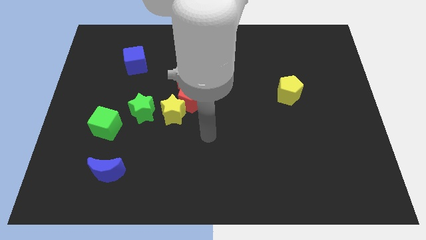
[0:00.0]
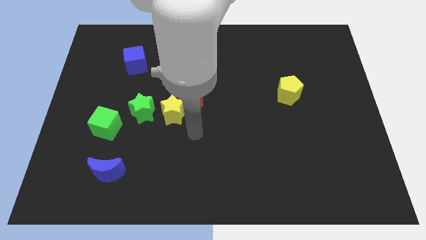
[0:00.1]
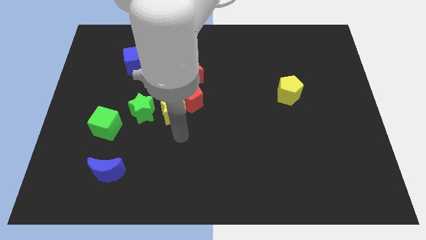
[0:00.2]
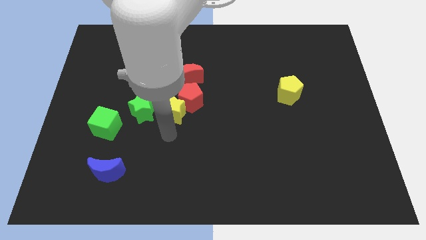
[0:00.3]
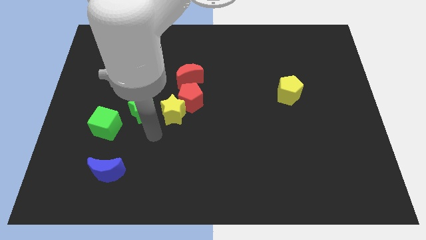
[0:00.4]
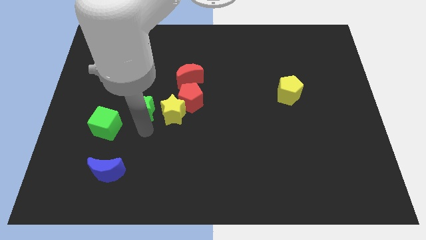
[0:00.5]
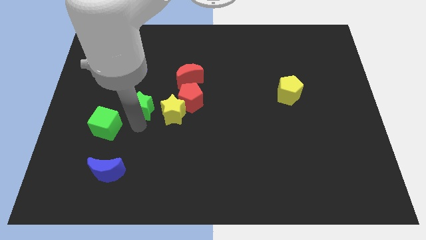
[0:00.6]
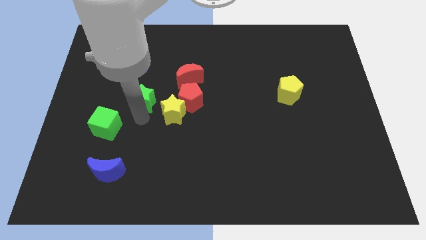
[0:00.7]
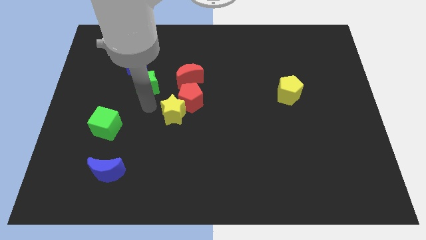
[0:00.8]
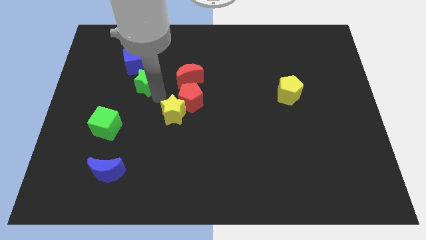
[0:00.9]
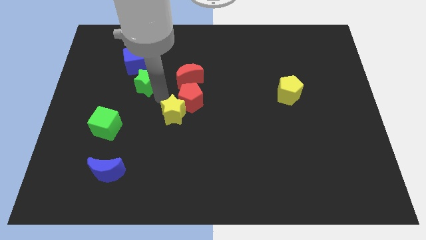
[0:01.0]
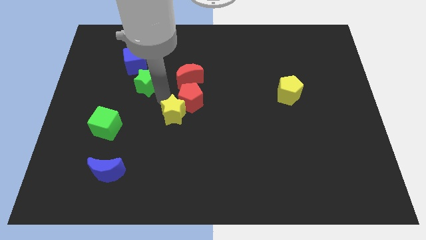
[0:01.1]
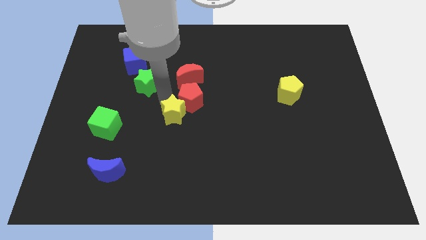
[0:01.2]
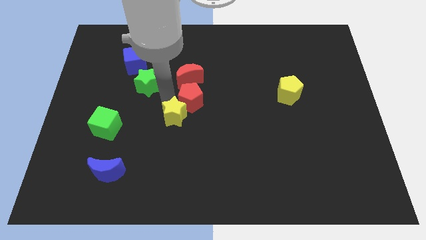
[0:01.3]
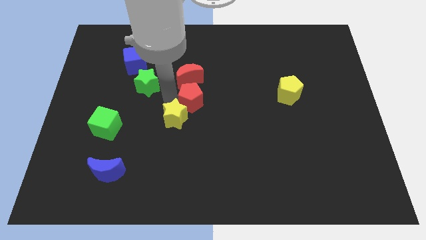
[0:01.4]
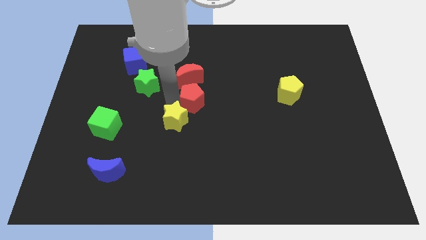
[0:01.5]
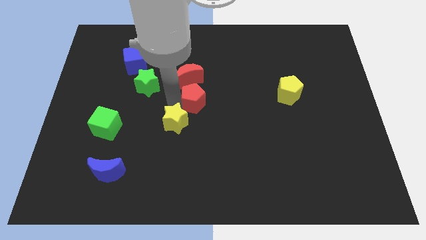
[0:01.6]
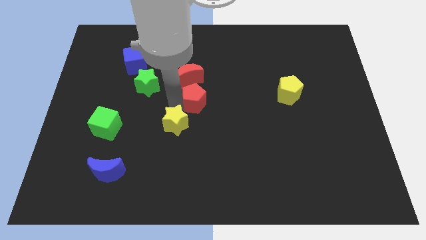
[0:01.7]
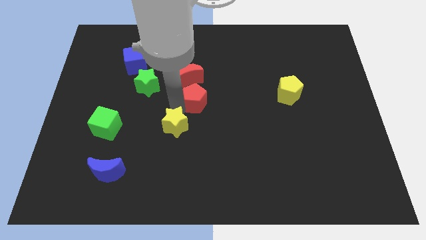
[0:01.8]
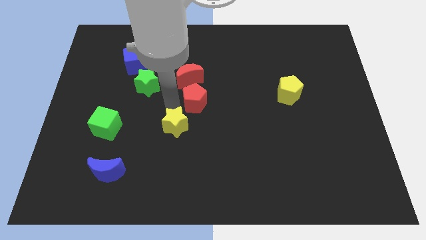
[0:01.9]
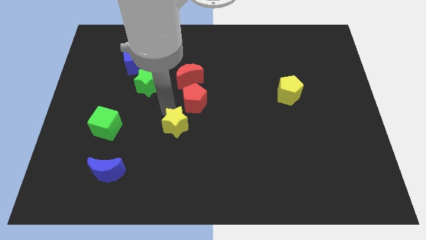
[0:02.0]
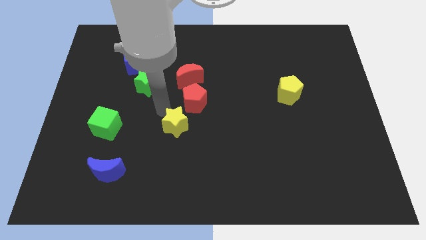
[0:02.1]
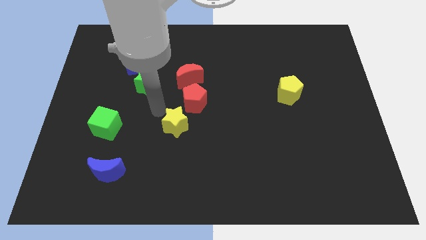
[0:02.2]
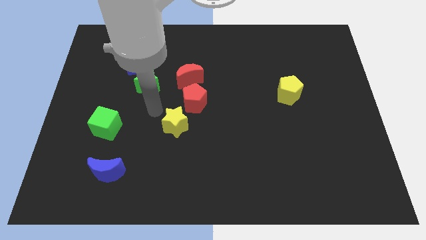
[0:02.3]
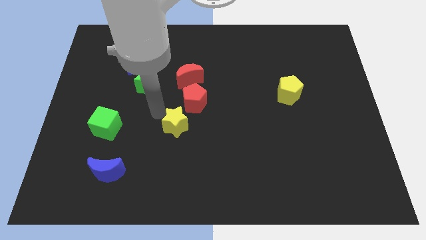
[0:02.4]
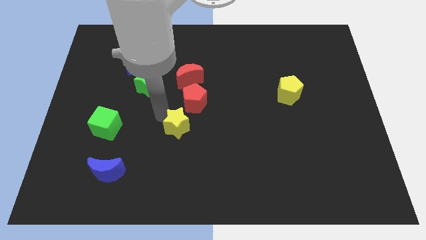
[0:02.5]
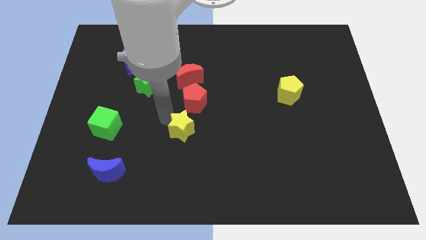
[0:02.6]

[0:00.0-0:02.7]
move the yellow star away from the red pentagon and green star

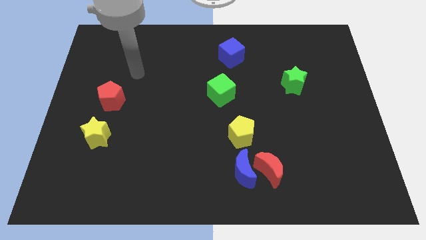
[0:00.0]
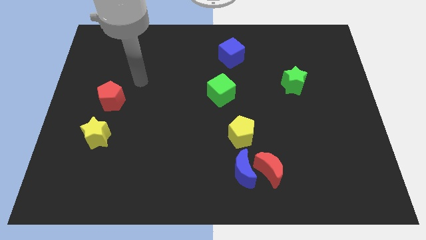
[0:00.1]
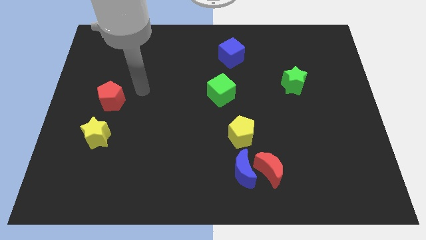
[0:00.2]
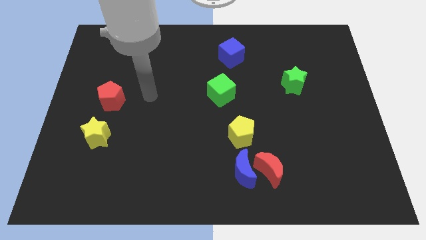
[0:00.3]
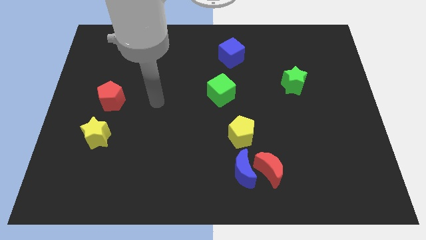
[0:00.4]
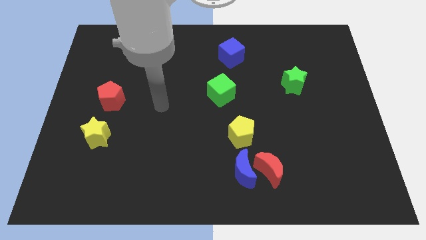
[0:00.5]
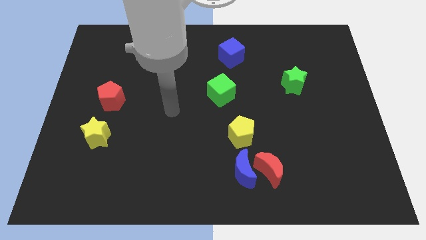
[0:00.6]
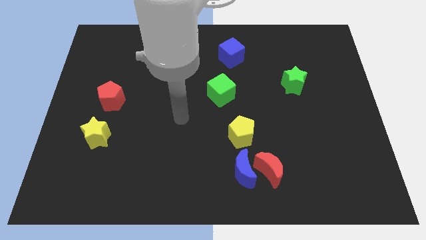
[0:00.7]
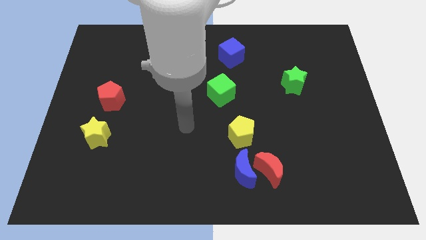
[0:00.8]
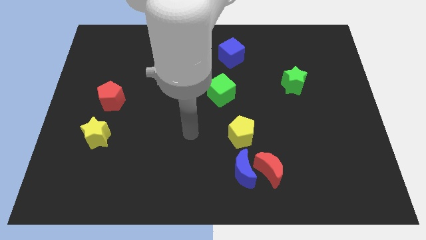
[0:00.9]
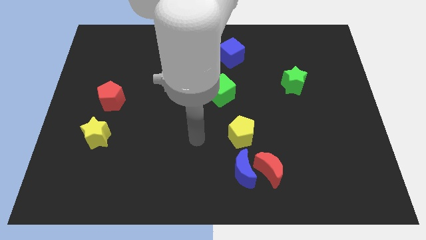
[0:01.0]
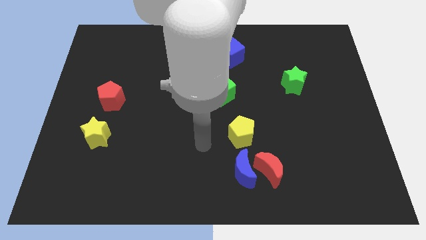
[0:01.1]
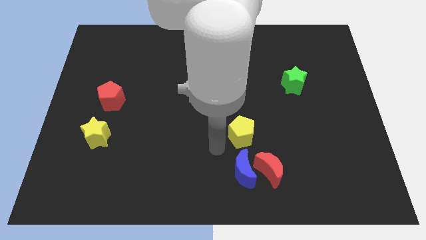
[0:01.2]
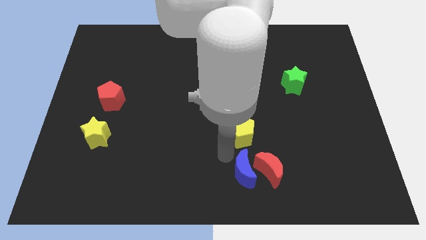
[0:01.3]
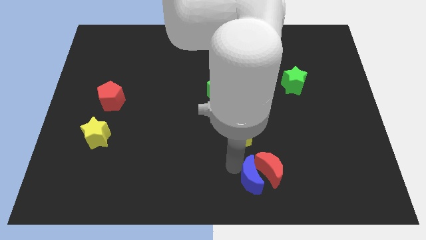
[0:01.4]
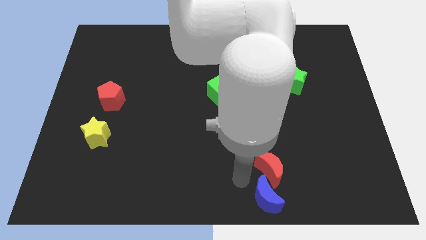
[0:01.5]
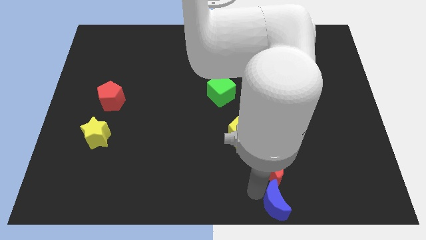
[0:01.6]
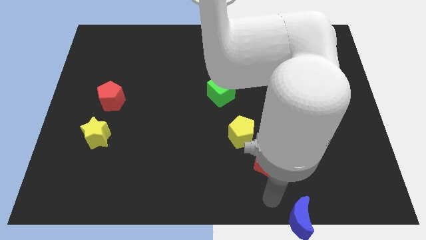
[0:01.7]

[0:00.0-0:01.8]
pull the red moon apart from the blue moon

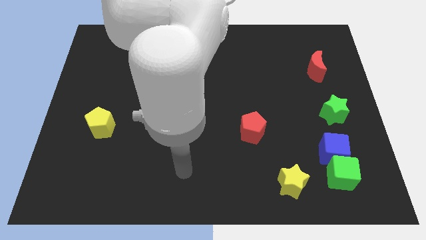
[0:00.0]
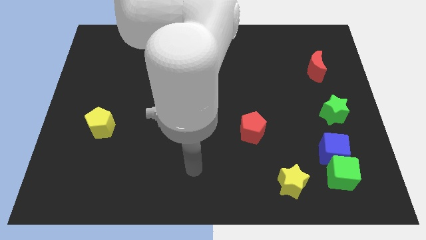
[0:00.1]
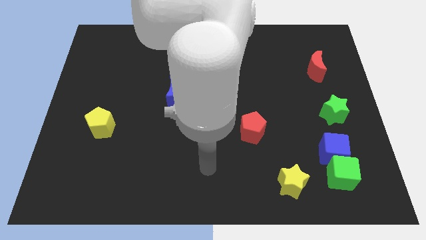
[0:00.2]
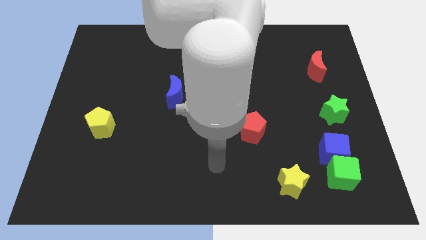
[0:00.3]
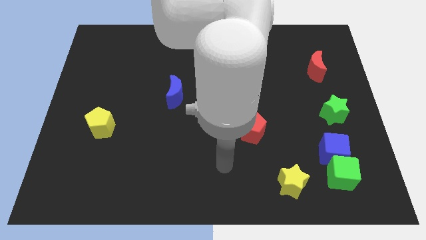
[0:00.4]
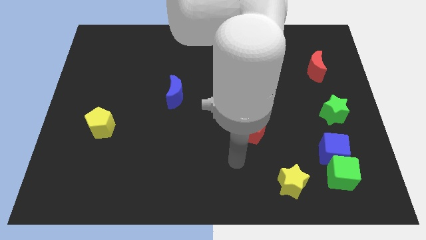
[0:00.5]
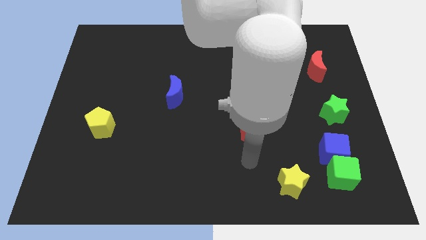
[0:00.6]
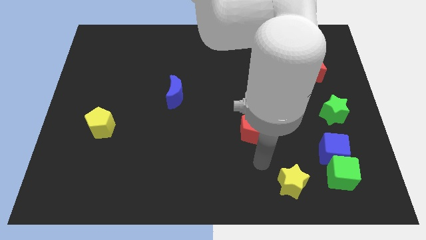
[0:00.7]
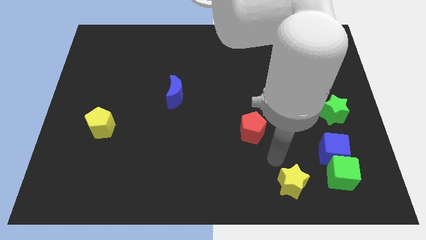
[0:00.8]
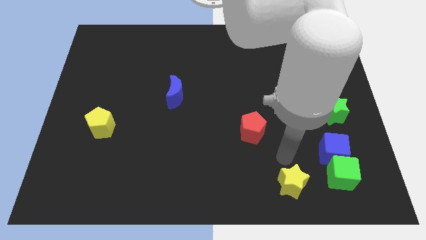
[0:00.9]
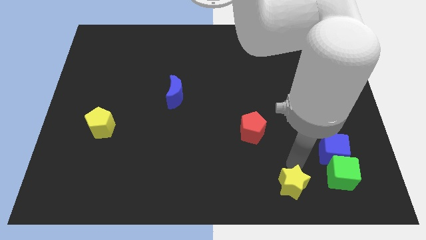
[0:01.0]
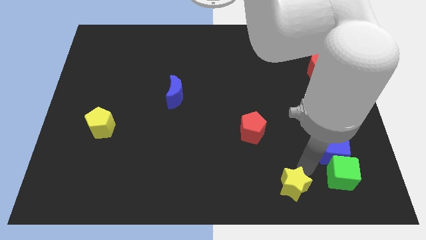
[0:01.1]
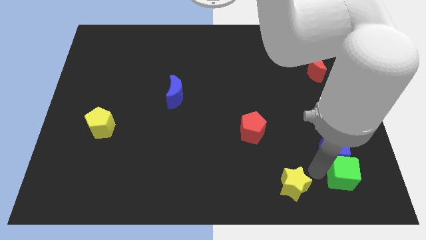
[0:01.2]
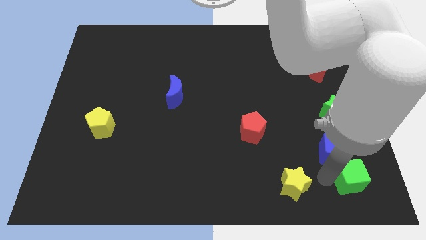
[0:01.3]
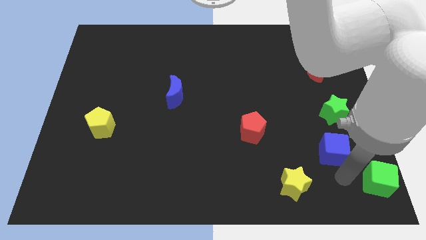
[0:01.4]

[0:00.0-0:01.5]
pull the blue cube apart from the green cube

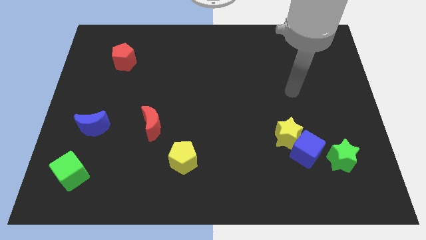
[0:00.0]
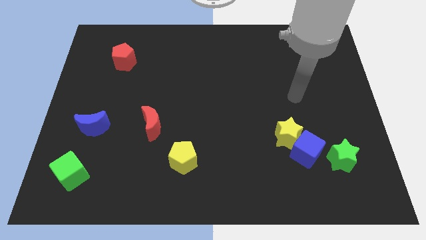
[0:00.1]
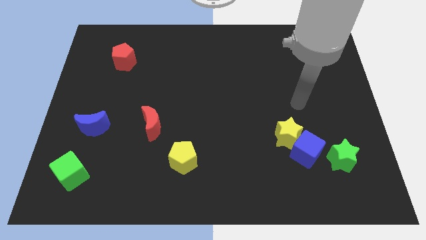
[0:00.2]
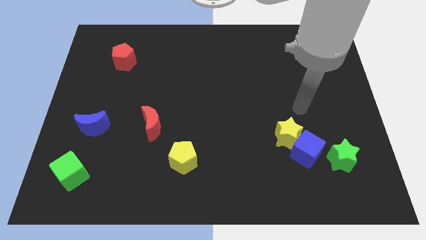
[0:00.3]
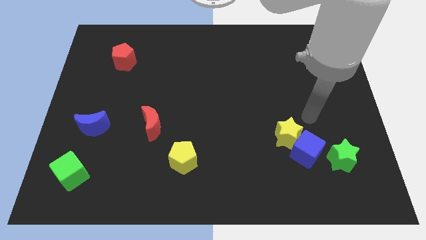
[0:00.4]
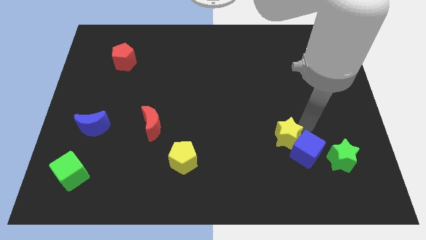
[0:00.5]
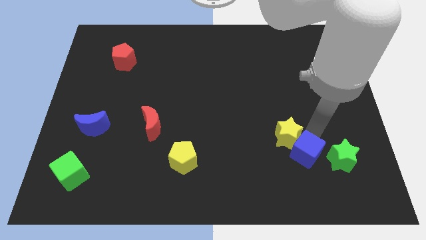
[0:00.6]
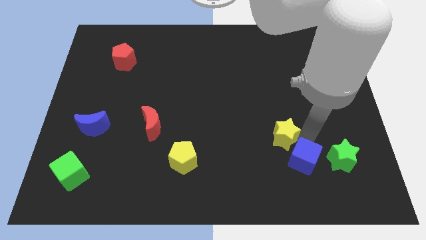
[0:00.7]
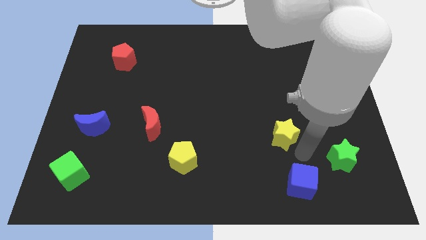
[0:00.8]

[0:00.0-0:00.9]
separate the yellow star from the blue cube

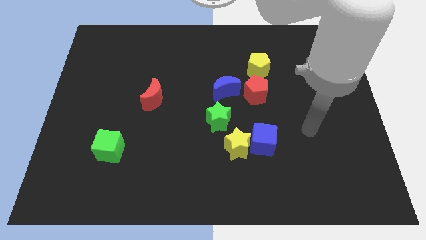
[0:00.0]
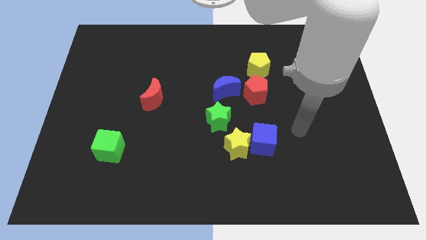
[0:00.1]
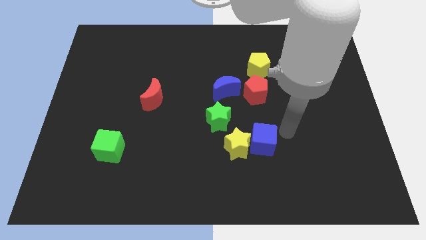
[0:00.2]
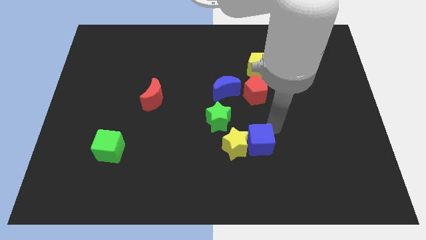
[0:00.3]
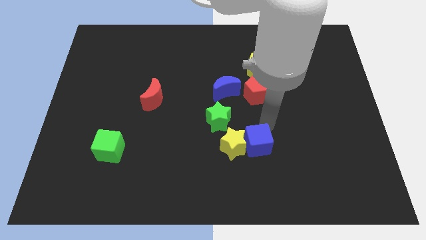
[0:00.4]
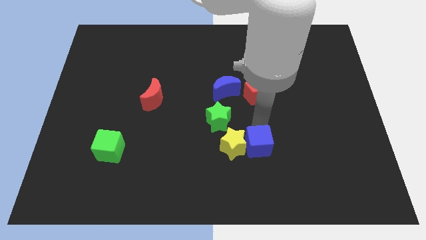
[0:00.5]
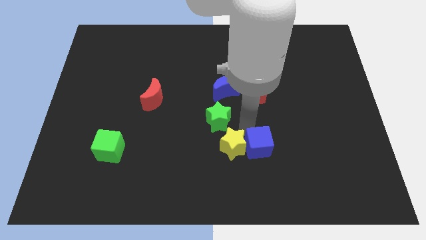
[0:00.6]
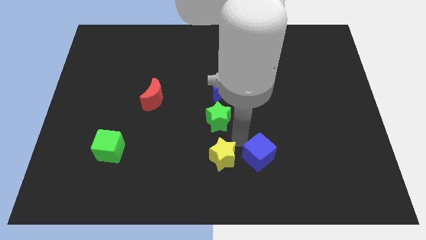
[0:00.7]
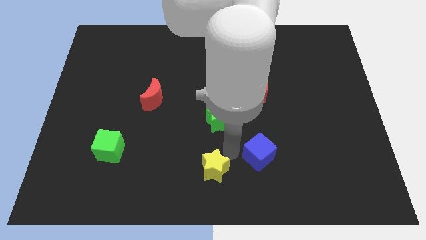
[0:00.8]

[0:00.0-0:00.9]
move the blue cube away from the yellow star

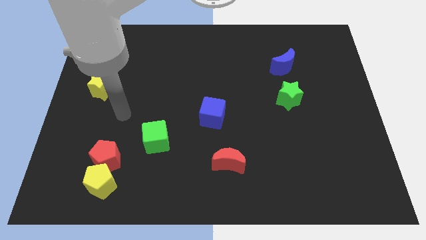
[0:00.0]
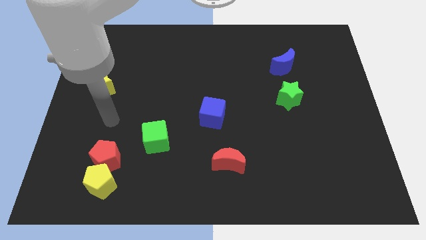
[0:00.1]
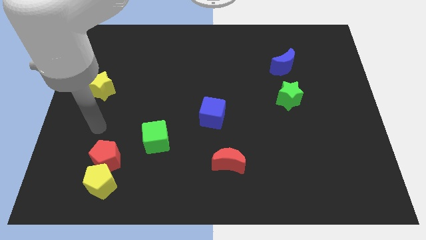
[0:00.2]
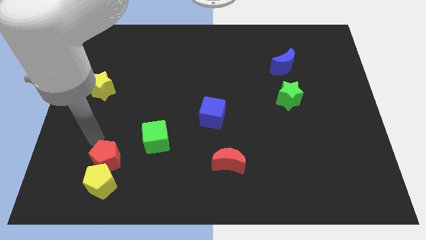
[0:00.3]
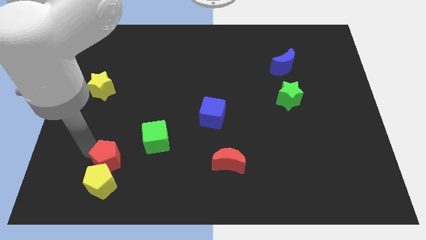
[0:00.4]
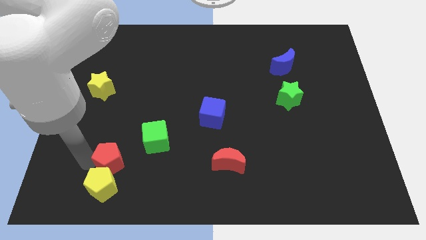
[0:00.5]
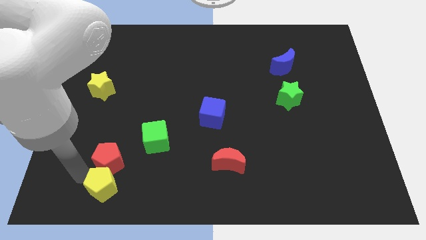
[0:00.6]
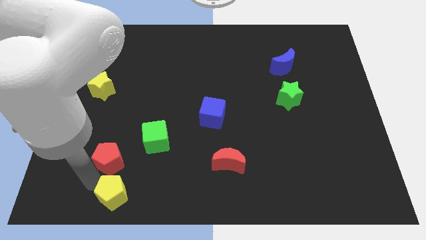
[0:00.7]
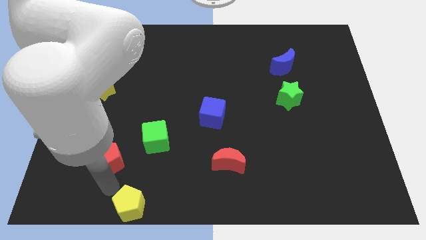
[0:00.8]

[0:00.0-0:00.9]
move the red pentagon away from the yellow pentagon

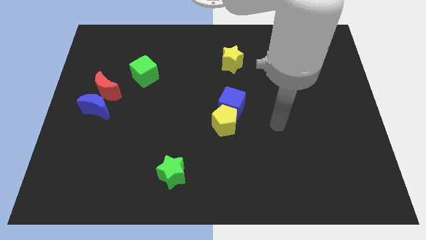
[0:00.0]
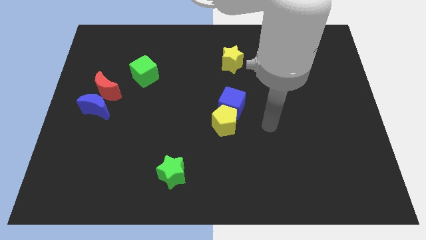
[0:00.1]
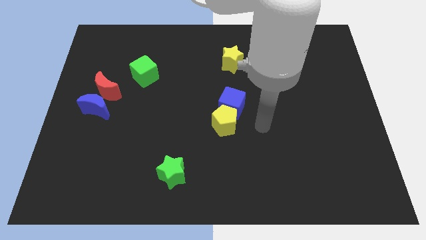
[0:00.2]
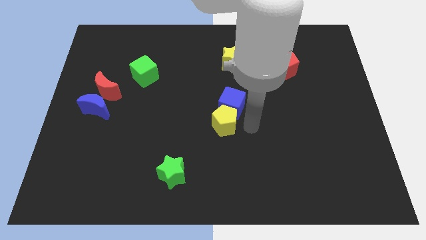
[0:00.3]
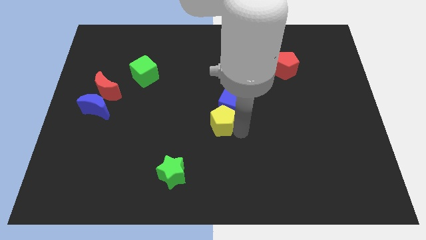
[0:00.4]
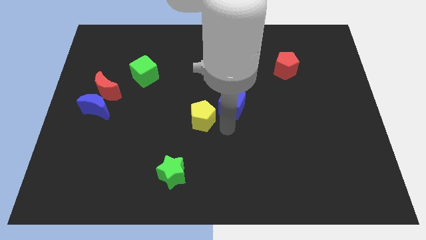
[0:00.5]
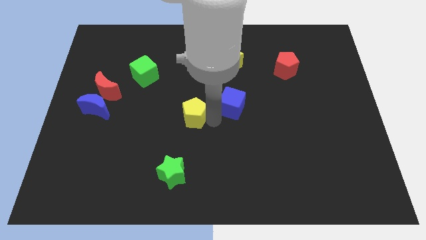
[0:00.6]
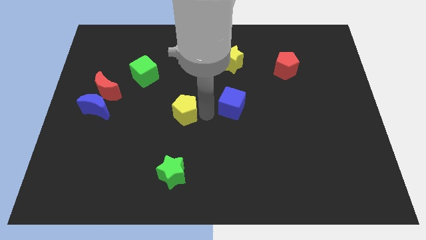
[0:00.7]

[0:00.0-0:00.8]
separate the blue cube from the yellow pentagon
